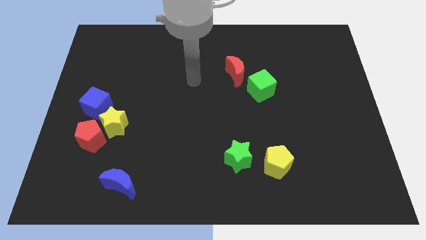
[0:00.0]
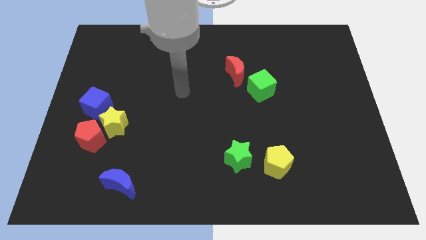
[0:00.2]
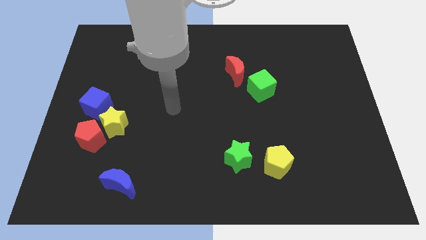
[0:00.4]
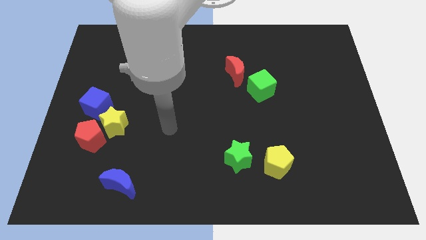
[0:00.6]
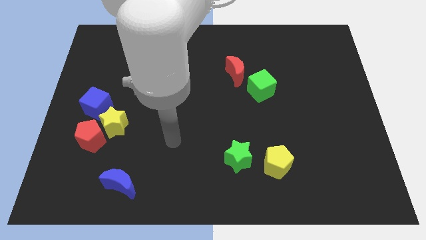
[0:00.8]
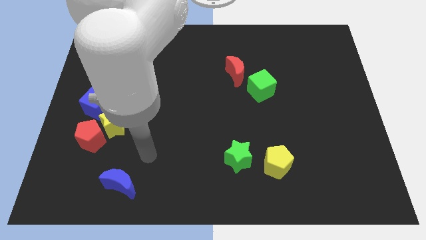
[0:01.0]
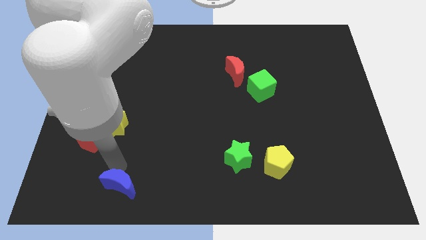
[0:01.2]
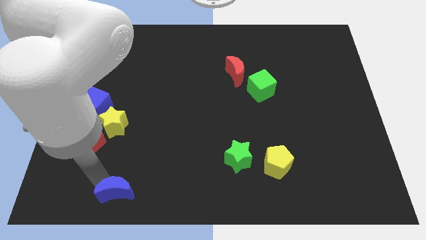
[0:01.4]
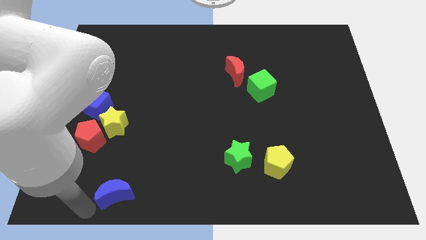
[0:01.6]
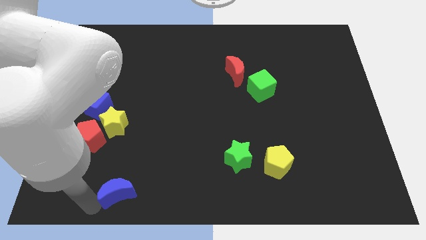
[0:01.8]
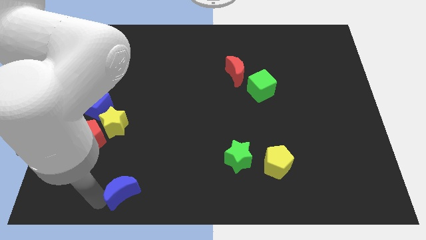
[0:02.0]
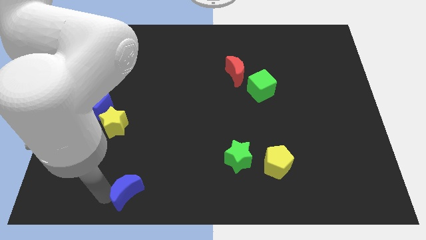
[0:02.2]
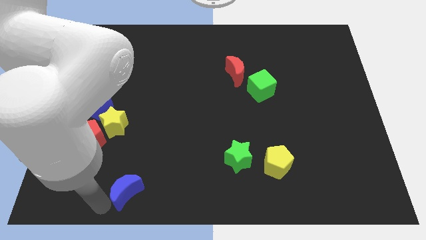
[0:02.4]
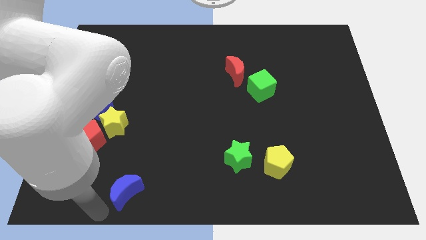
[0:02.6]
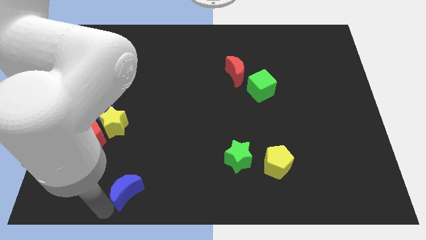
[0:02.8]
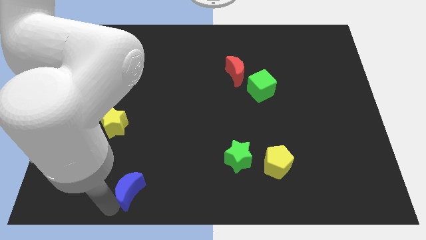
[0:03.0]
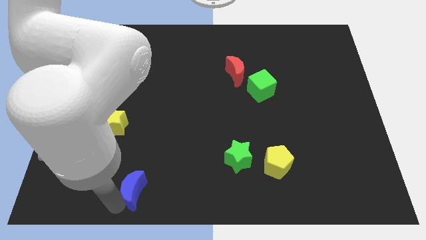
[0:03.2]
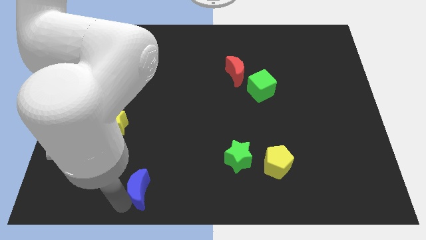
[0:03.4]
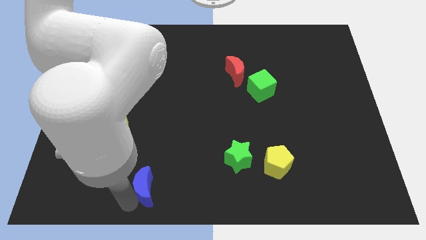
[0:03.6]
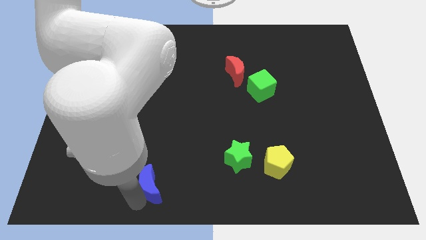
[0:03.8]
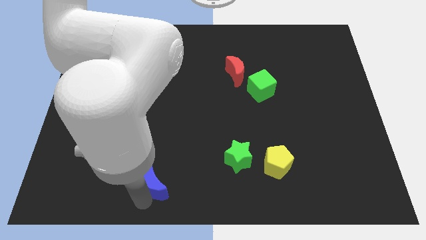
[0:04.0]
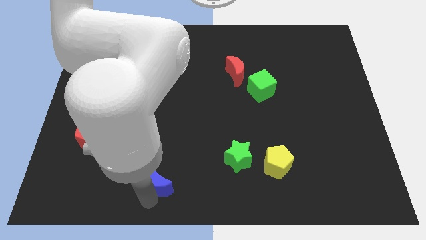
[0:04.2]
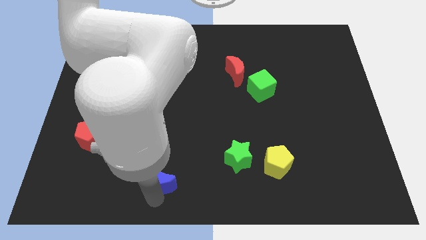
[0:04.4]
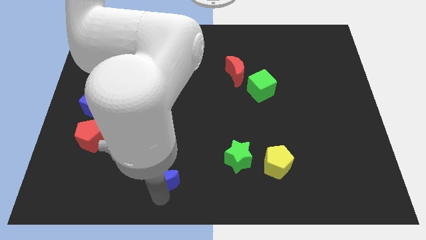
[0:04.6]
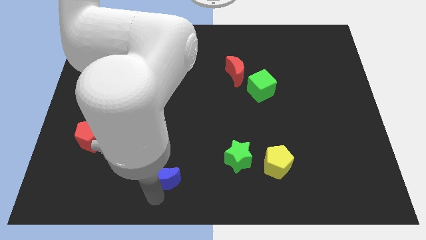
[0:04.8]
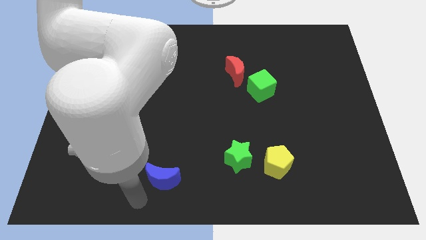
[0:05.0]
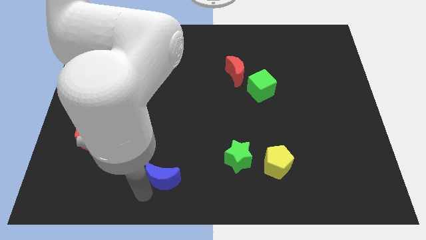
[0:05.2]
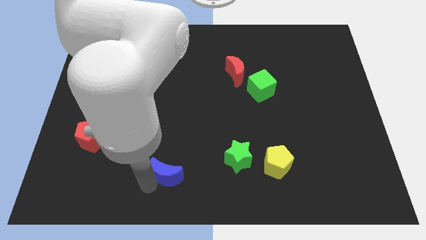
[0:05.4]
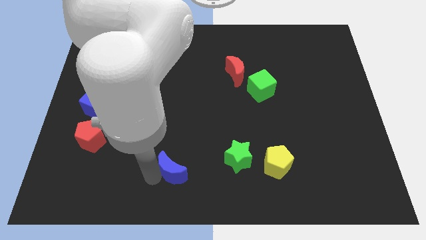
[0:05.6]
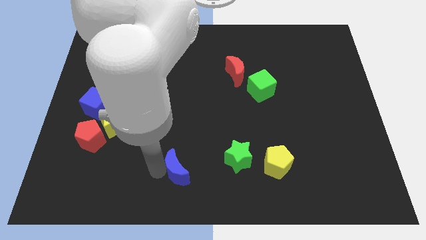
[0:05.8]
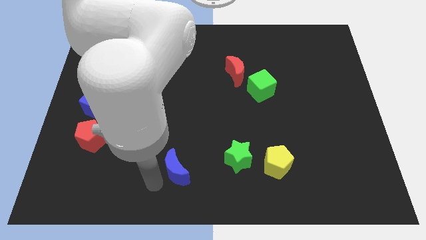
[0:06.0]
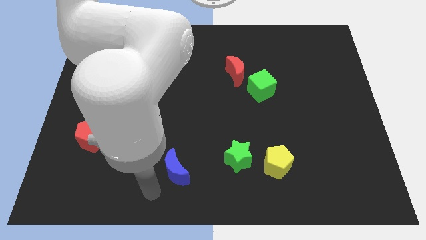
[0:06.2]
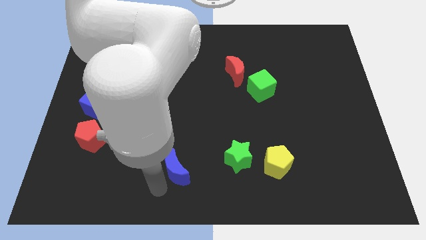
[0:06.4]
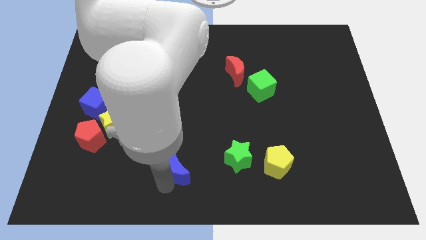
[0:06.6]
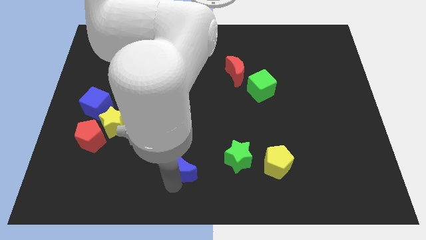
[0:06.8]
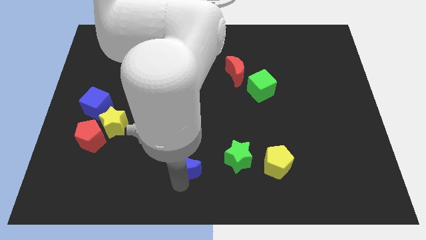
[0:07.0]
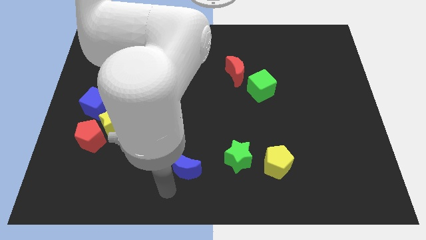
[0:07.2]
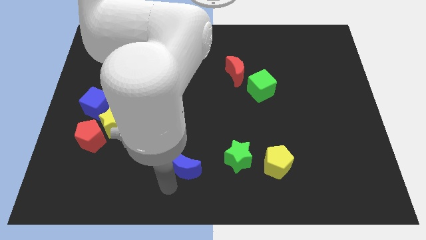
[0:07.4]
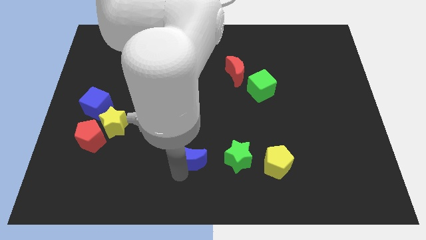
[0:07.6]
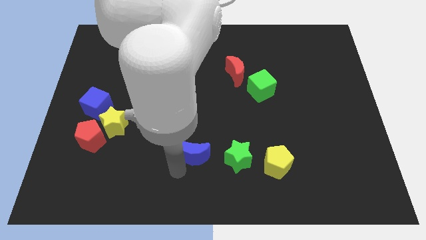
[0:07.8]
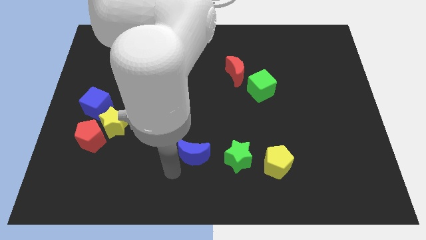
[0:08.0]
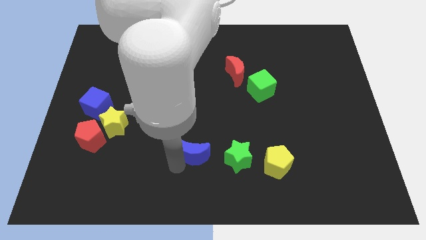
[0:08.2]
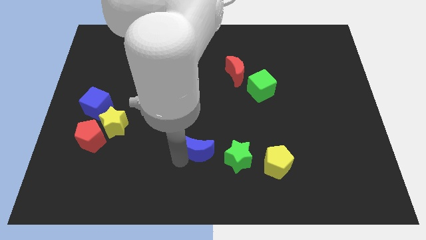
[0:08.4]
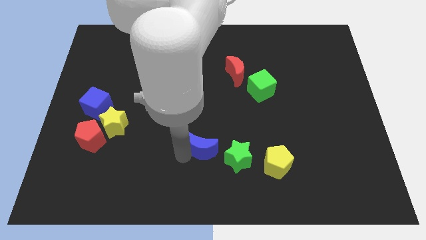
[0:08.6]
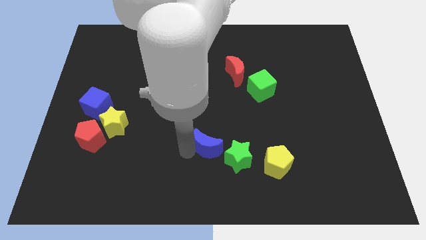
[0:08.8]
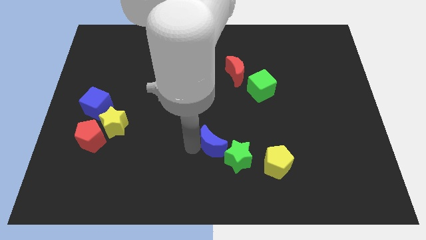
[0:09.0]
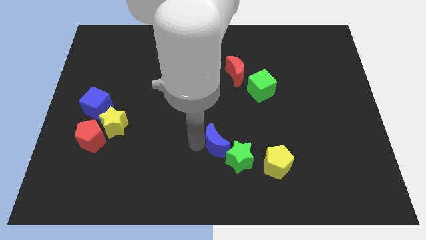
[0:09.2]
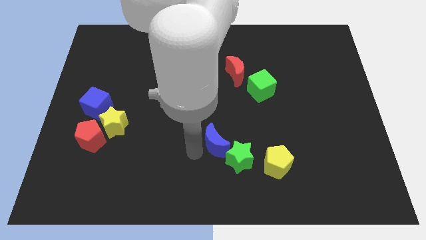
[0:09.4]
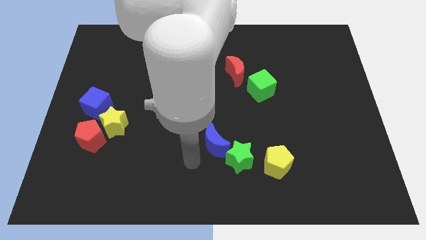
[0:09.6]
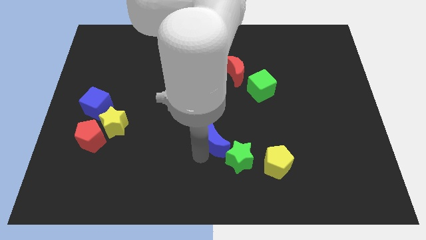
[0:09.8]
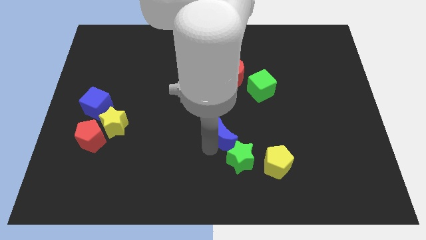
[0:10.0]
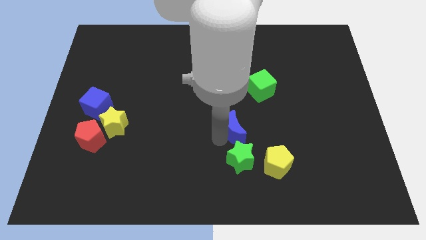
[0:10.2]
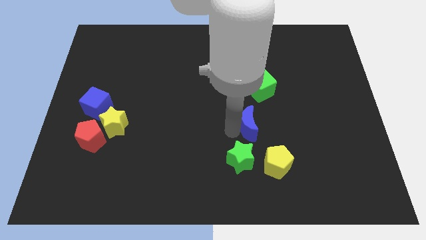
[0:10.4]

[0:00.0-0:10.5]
slide the blue moon to the bottom side of the green cube

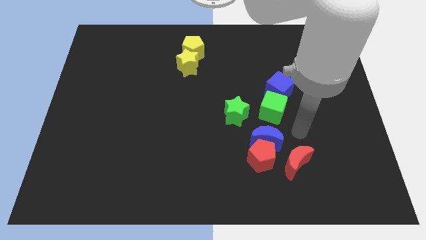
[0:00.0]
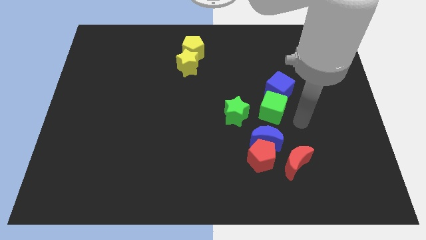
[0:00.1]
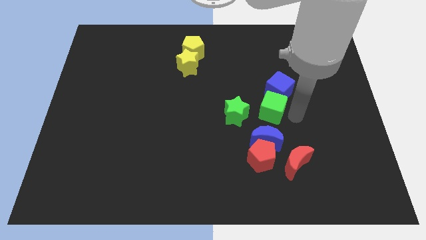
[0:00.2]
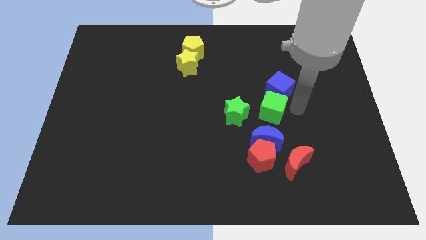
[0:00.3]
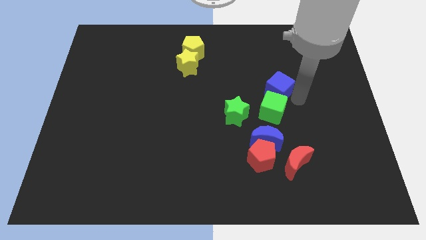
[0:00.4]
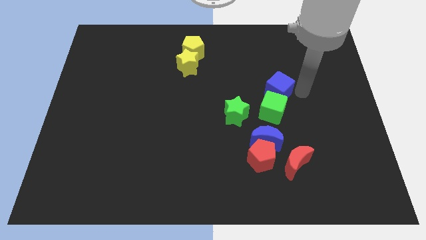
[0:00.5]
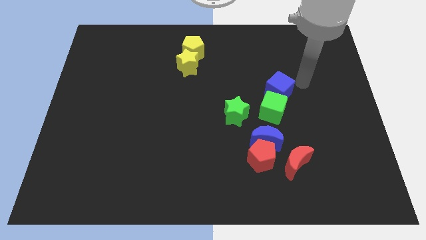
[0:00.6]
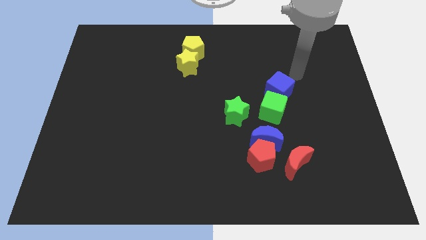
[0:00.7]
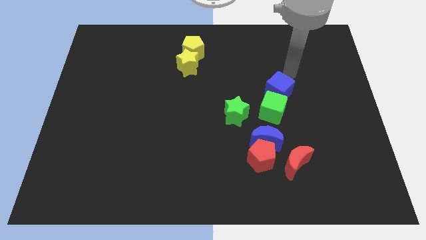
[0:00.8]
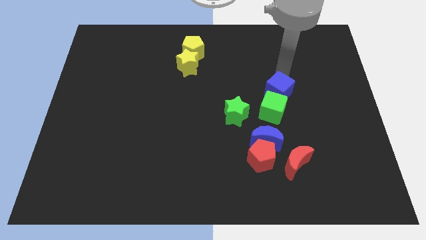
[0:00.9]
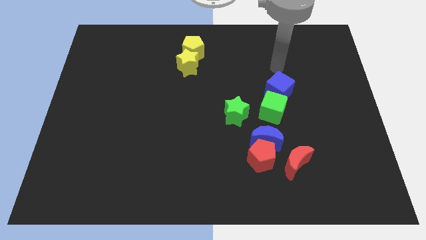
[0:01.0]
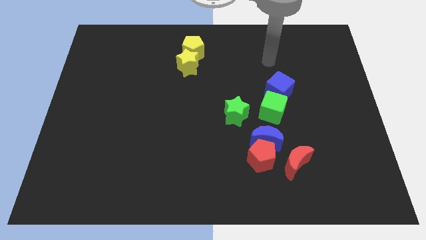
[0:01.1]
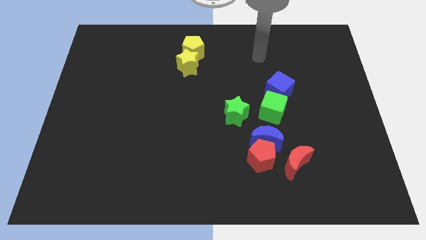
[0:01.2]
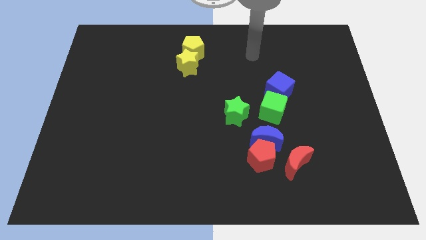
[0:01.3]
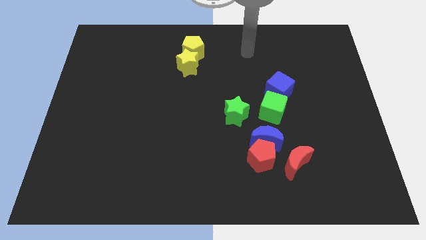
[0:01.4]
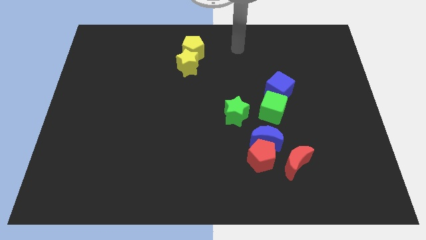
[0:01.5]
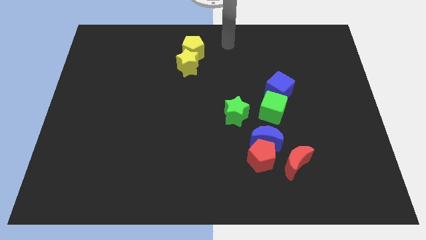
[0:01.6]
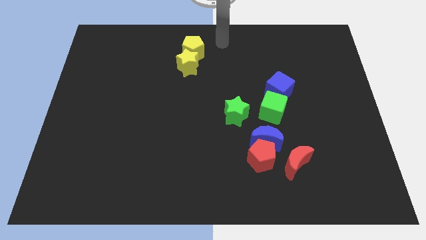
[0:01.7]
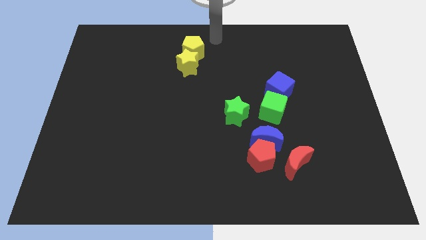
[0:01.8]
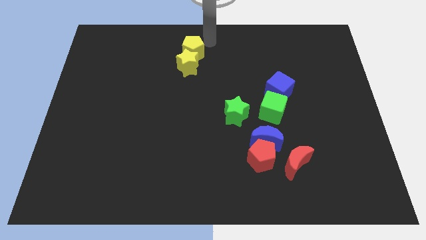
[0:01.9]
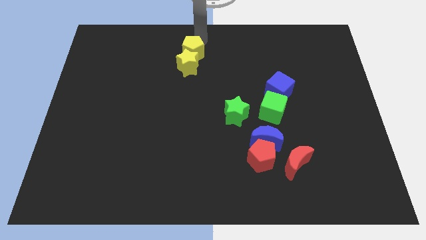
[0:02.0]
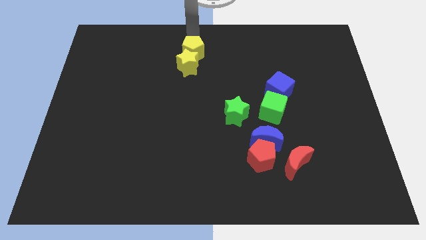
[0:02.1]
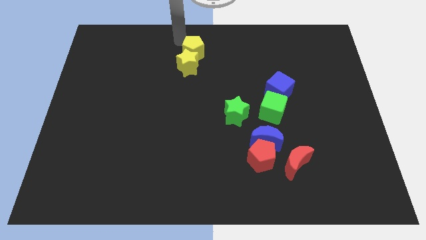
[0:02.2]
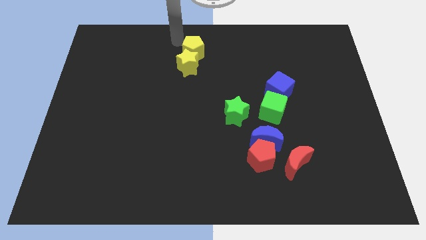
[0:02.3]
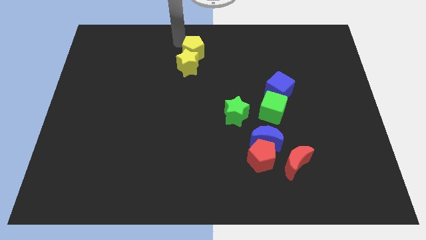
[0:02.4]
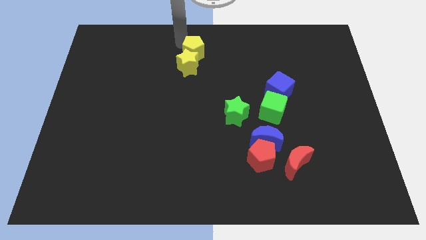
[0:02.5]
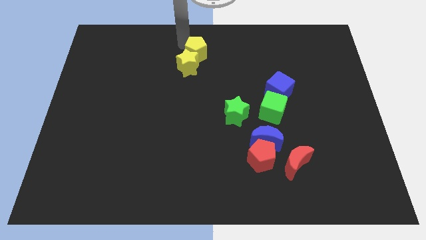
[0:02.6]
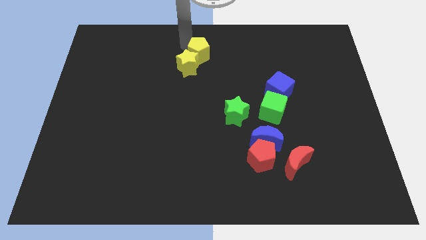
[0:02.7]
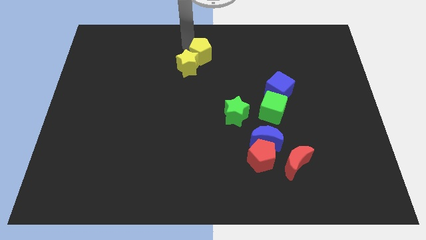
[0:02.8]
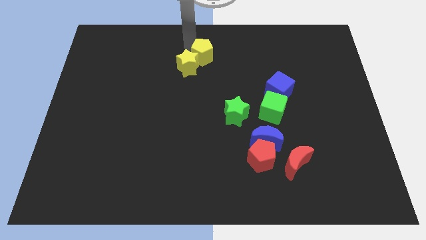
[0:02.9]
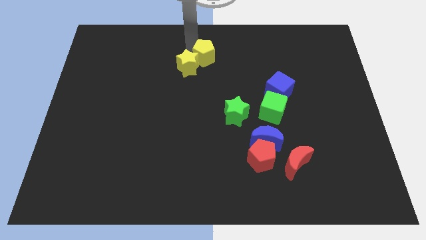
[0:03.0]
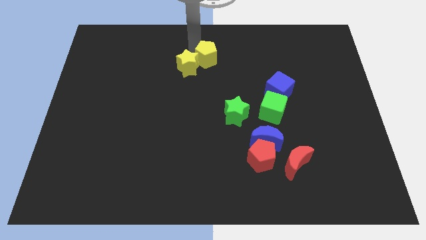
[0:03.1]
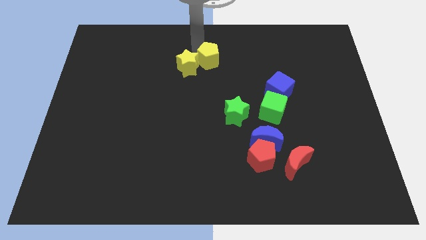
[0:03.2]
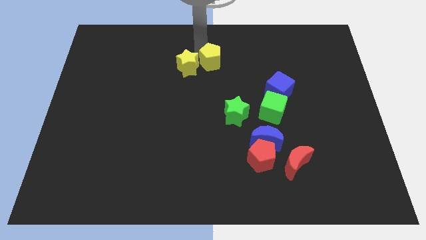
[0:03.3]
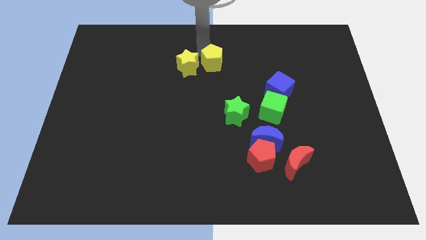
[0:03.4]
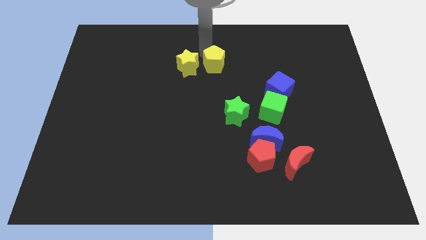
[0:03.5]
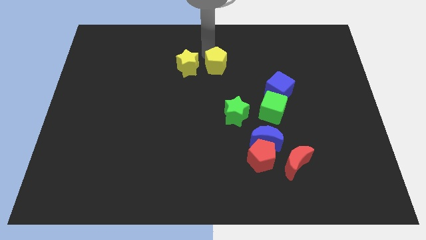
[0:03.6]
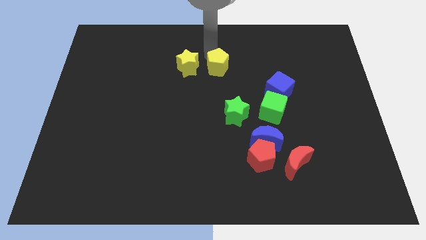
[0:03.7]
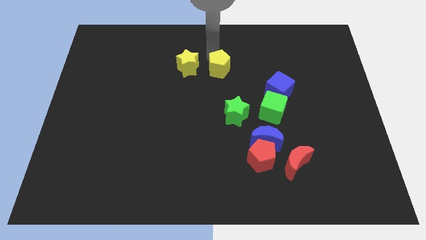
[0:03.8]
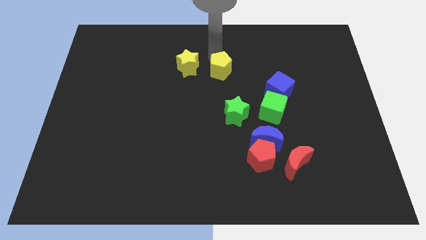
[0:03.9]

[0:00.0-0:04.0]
slide the yellow pentagon diagonally down and to the right of the yellow star
